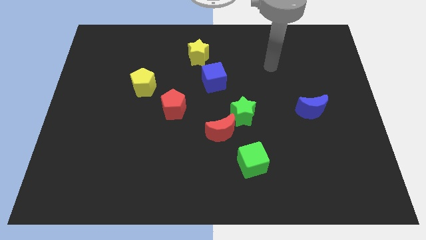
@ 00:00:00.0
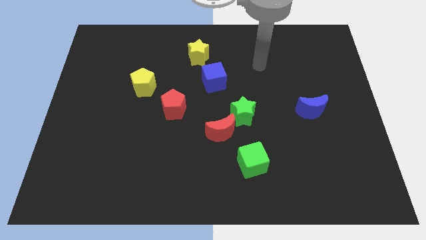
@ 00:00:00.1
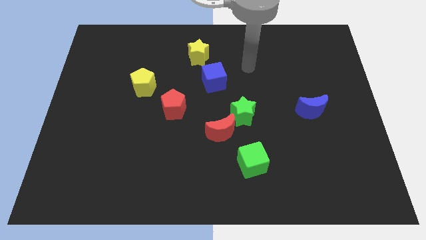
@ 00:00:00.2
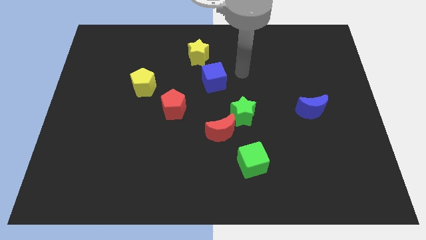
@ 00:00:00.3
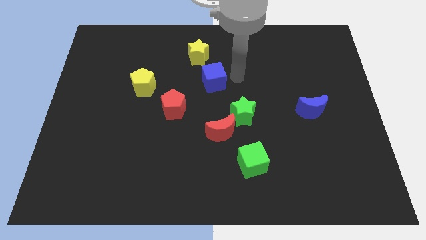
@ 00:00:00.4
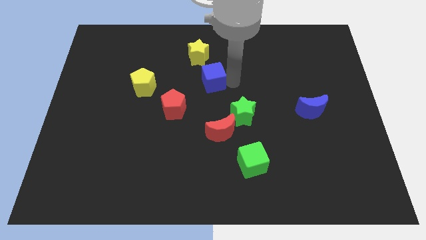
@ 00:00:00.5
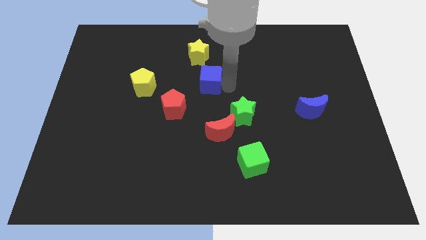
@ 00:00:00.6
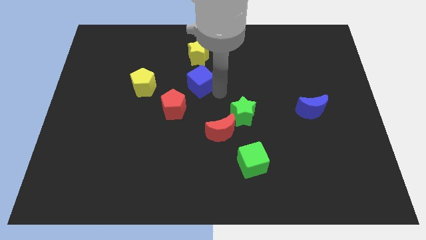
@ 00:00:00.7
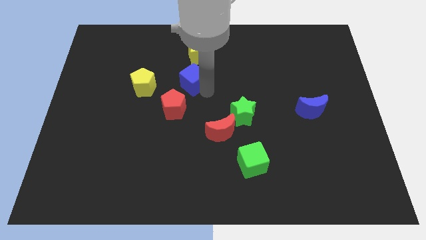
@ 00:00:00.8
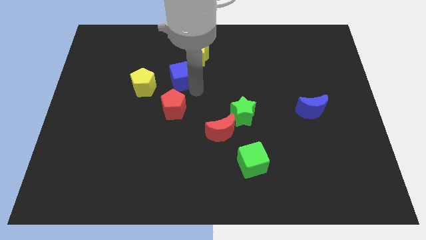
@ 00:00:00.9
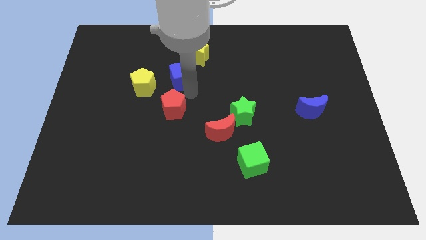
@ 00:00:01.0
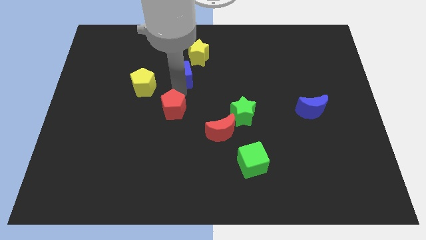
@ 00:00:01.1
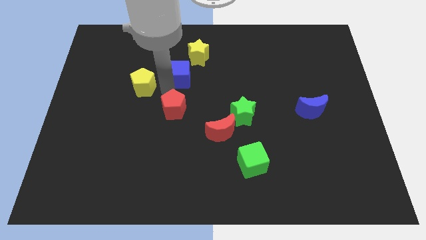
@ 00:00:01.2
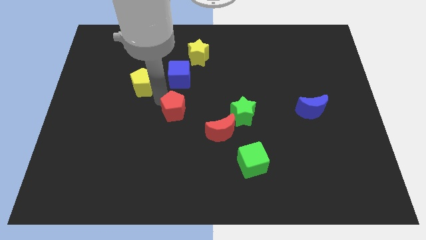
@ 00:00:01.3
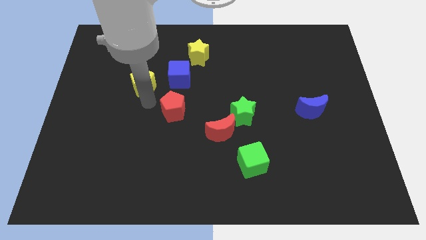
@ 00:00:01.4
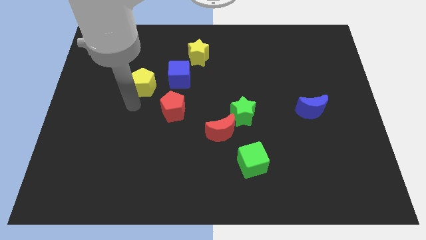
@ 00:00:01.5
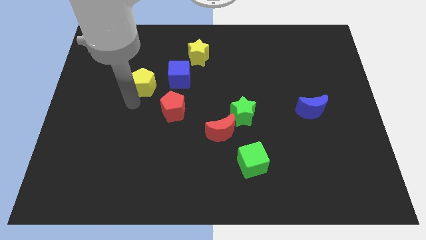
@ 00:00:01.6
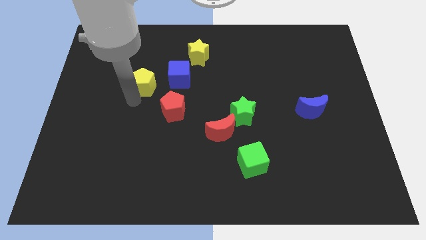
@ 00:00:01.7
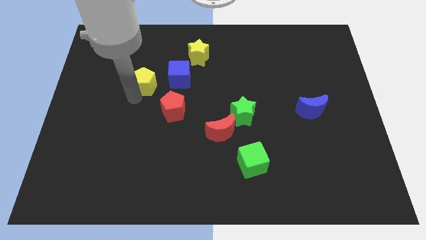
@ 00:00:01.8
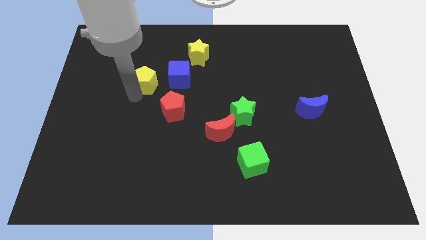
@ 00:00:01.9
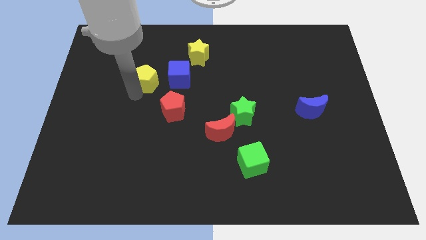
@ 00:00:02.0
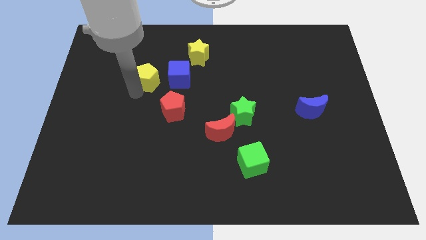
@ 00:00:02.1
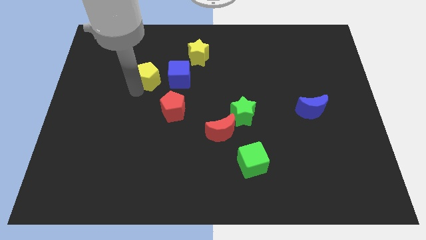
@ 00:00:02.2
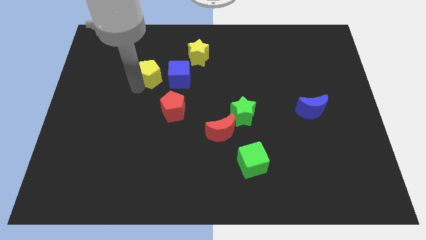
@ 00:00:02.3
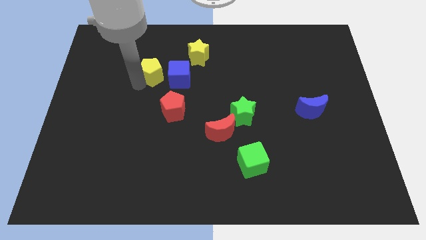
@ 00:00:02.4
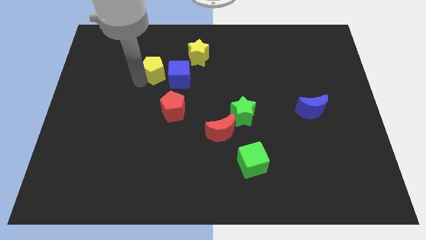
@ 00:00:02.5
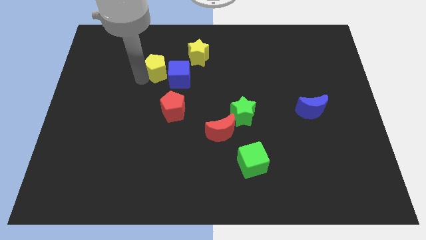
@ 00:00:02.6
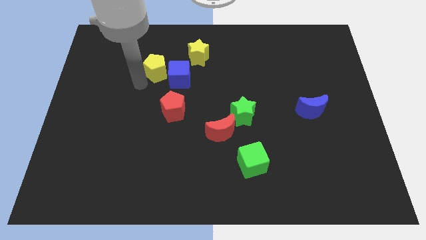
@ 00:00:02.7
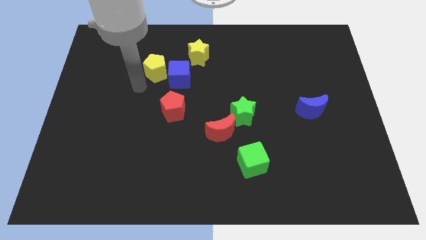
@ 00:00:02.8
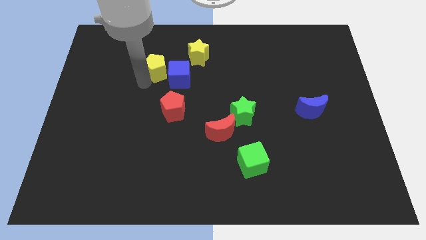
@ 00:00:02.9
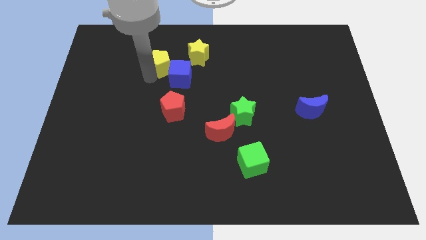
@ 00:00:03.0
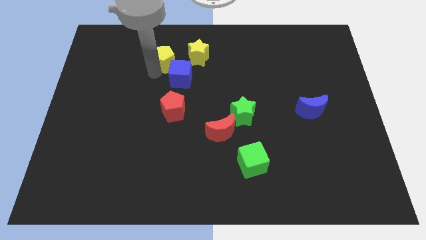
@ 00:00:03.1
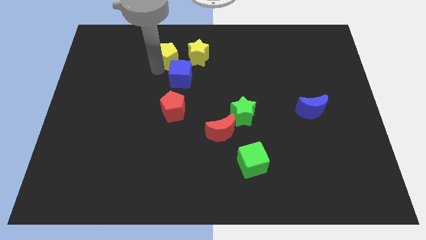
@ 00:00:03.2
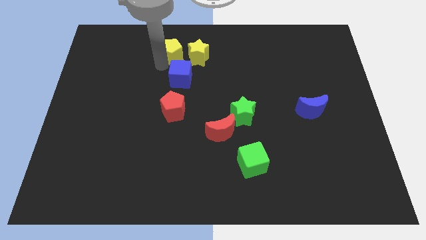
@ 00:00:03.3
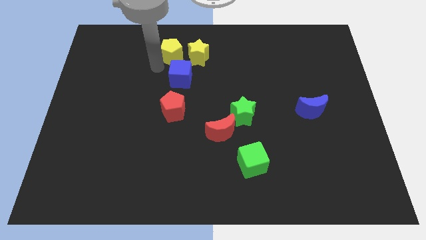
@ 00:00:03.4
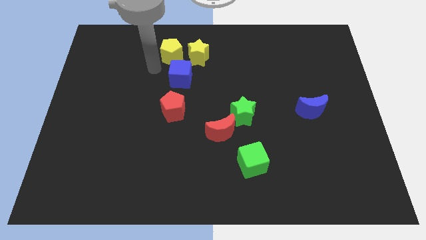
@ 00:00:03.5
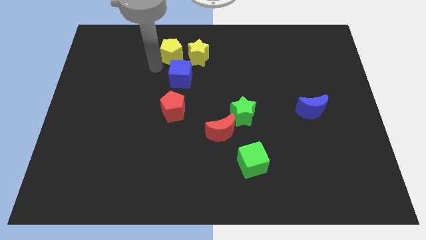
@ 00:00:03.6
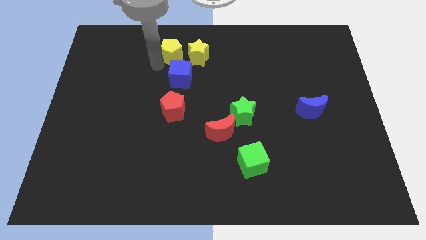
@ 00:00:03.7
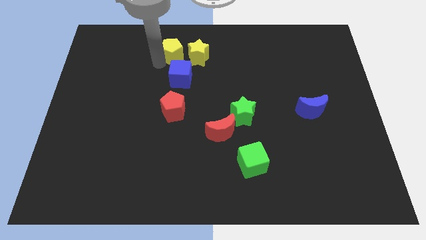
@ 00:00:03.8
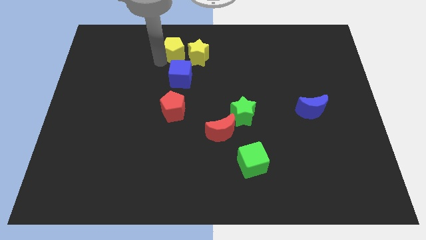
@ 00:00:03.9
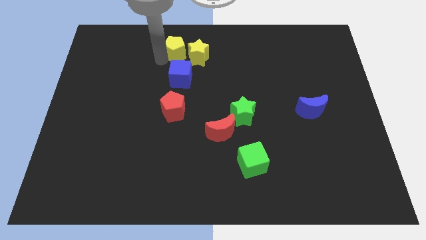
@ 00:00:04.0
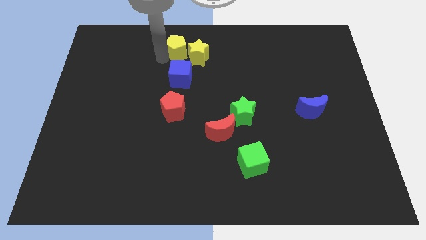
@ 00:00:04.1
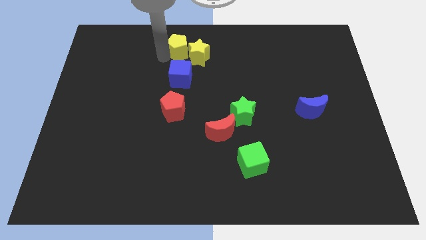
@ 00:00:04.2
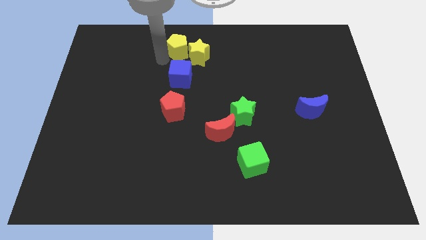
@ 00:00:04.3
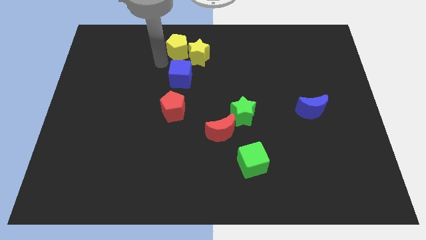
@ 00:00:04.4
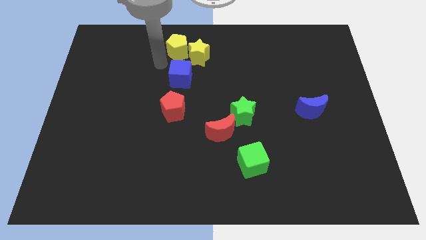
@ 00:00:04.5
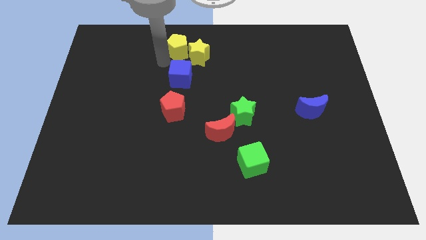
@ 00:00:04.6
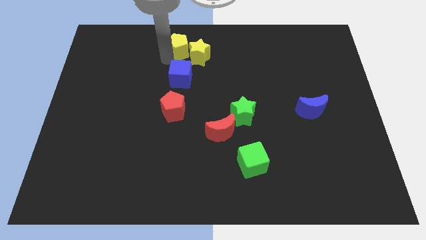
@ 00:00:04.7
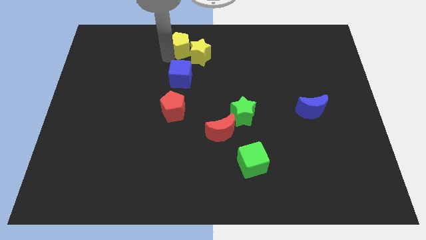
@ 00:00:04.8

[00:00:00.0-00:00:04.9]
put the yellow pentagon to the top

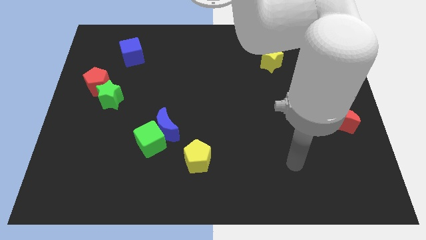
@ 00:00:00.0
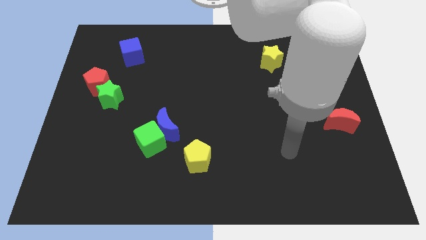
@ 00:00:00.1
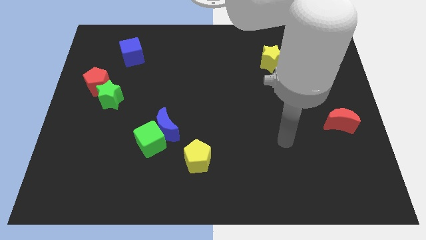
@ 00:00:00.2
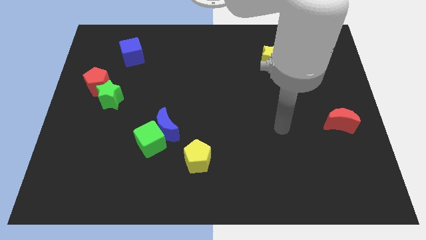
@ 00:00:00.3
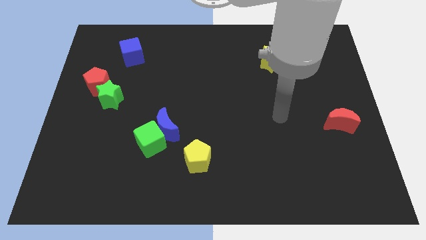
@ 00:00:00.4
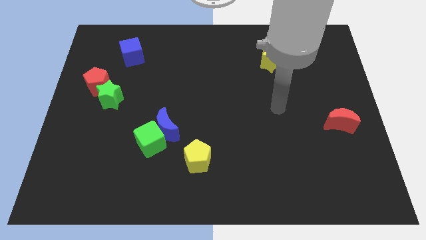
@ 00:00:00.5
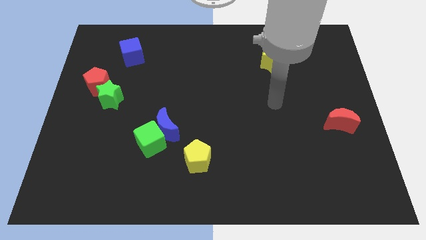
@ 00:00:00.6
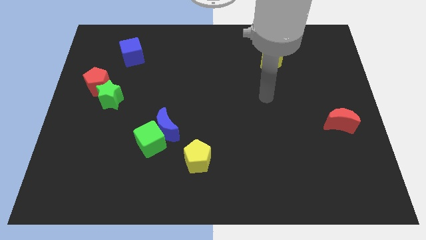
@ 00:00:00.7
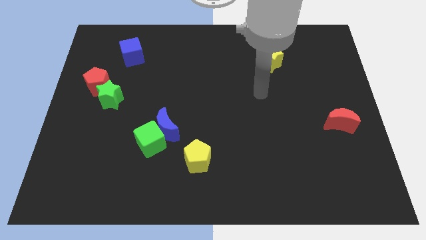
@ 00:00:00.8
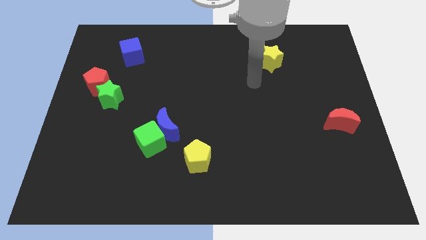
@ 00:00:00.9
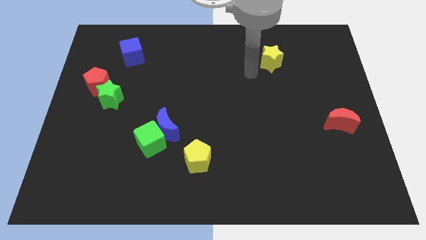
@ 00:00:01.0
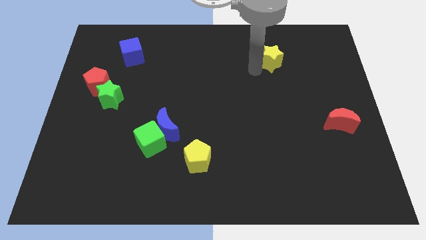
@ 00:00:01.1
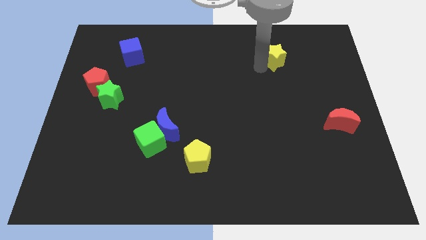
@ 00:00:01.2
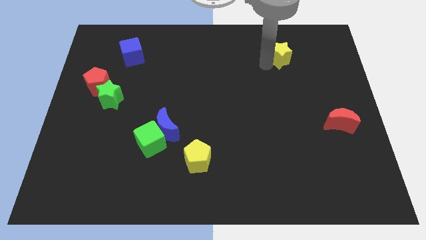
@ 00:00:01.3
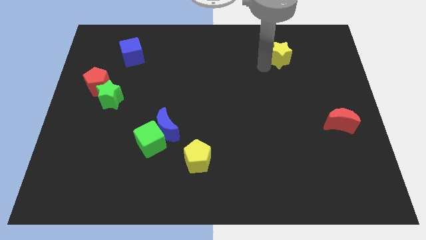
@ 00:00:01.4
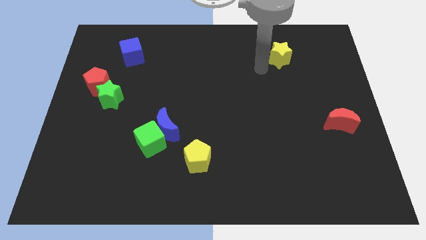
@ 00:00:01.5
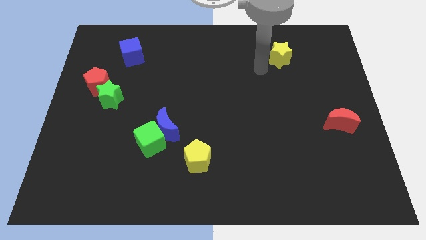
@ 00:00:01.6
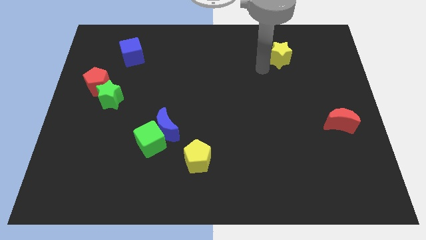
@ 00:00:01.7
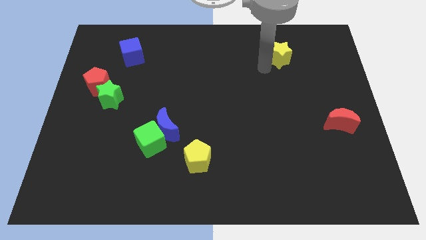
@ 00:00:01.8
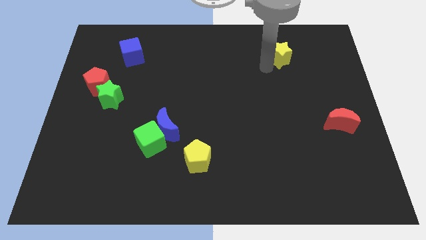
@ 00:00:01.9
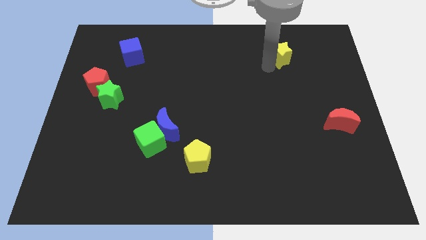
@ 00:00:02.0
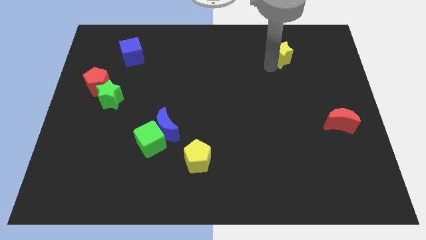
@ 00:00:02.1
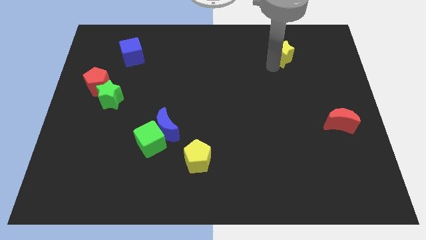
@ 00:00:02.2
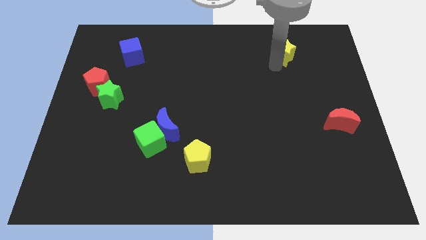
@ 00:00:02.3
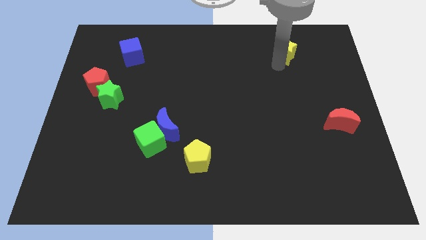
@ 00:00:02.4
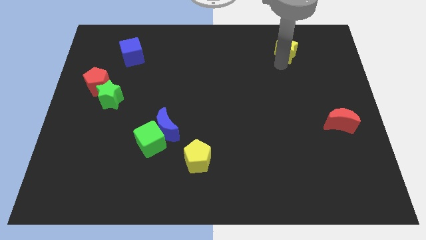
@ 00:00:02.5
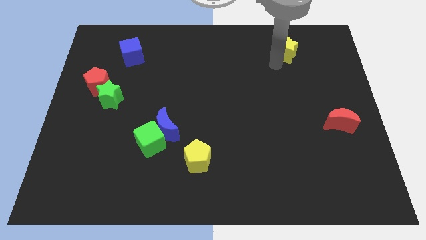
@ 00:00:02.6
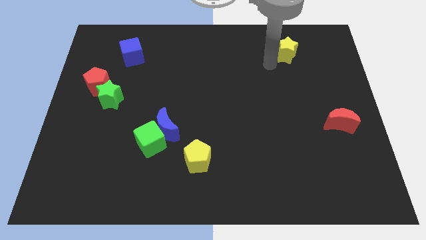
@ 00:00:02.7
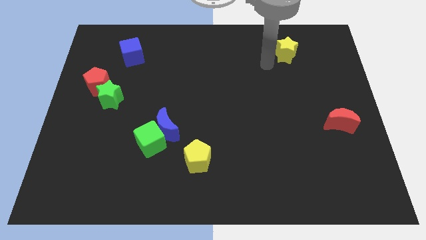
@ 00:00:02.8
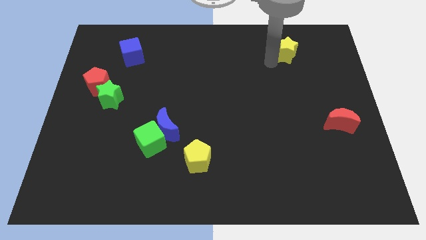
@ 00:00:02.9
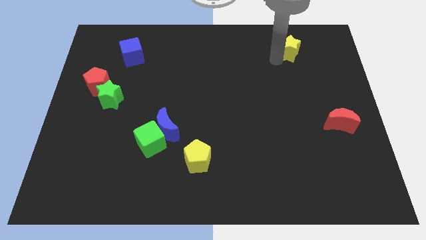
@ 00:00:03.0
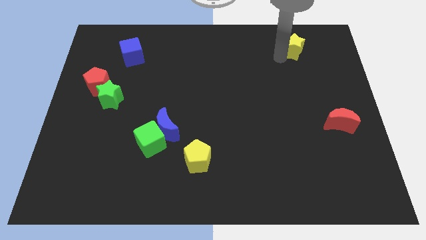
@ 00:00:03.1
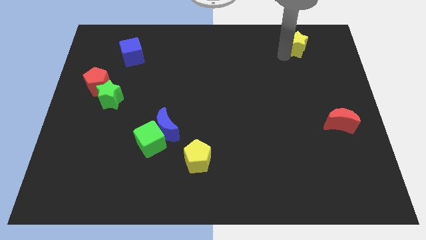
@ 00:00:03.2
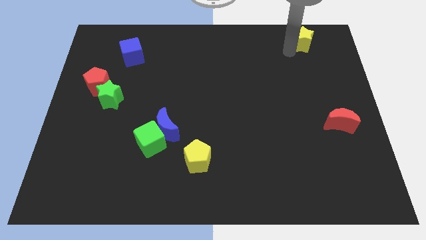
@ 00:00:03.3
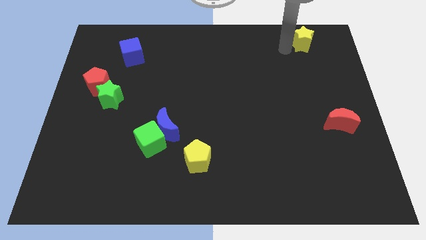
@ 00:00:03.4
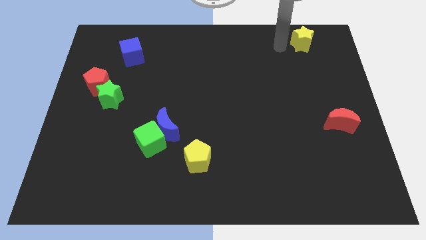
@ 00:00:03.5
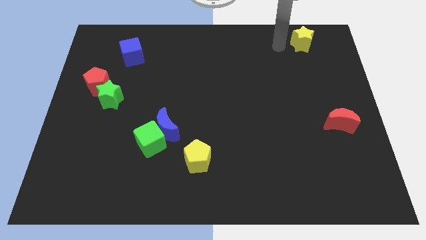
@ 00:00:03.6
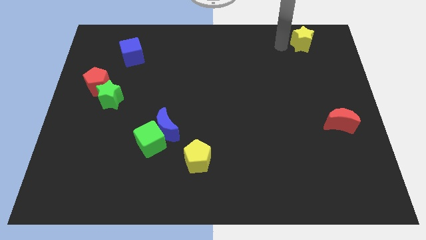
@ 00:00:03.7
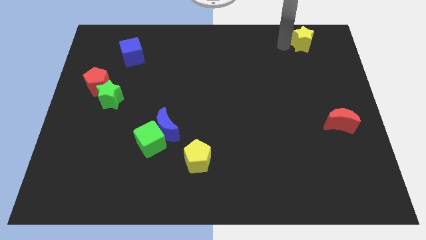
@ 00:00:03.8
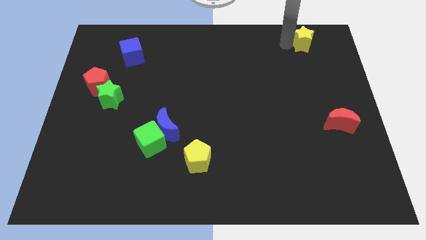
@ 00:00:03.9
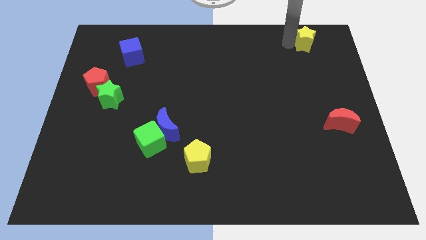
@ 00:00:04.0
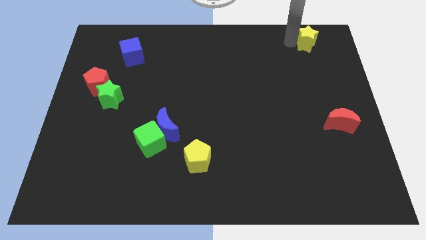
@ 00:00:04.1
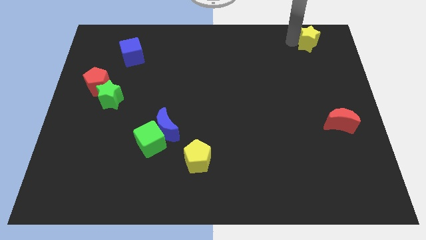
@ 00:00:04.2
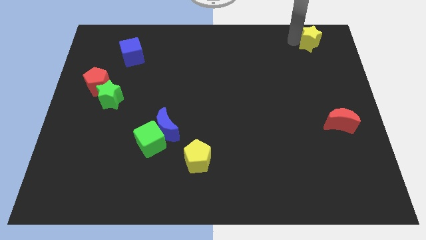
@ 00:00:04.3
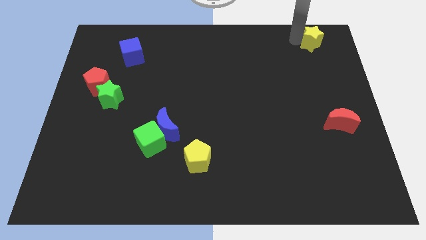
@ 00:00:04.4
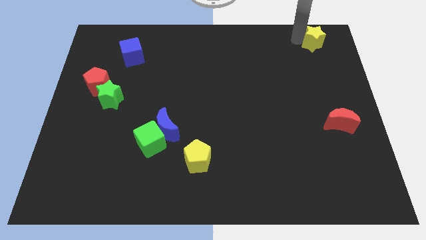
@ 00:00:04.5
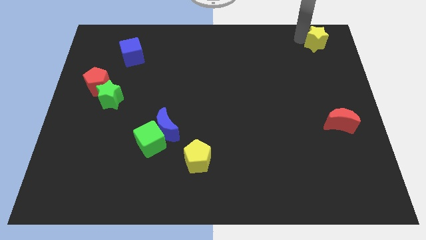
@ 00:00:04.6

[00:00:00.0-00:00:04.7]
slide the yellow star to the top right
